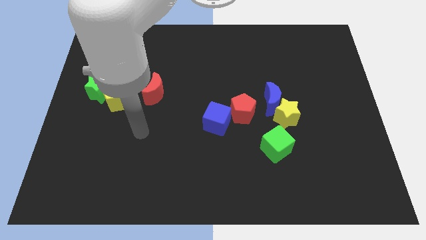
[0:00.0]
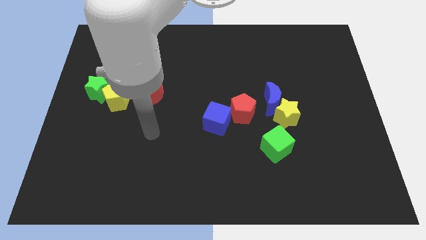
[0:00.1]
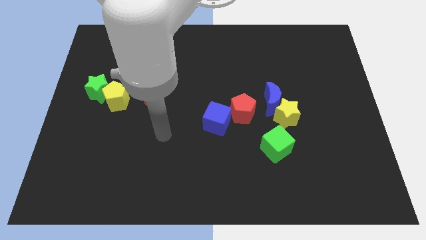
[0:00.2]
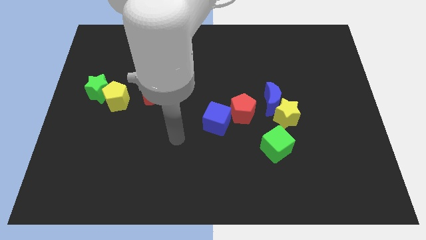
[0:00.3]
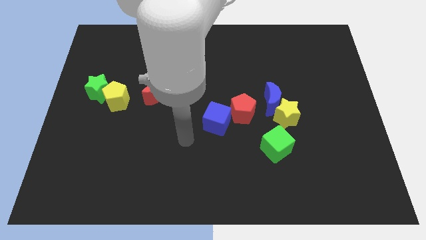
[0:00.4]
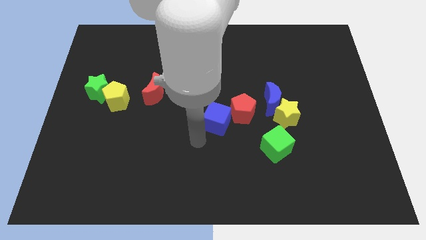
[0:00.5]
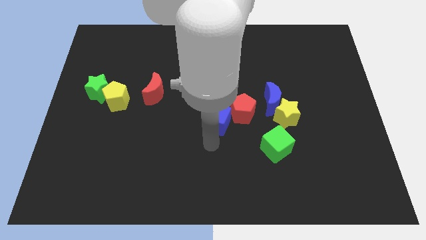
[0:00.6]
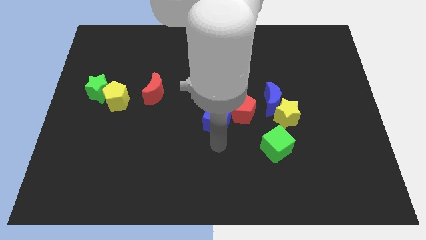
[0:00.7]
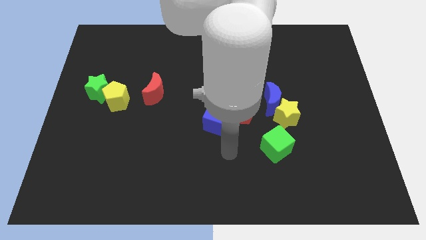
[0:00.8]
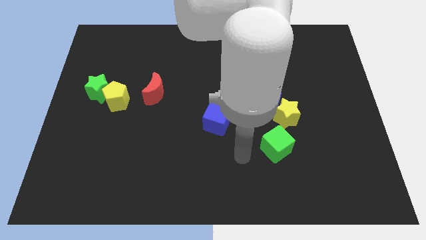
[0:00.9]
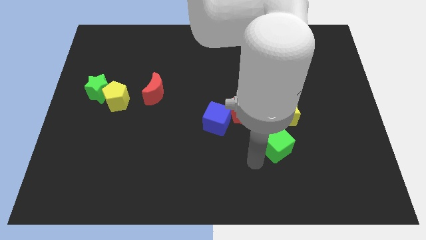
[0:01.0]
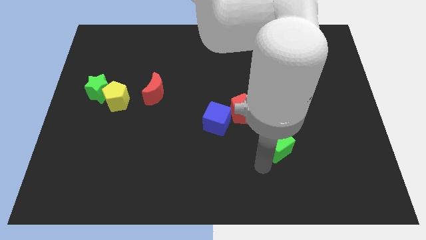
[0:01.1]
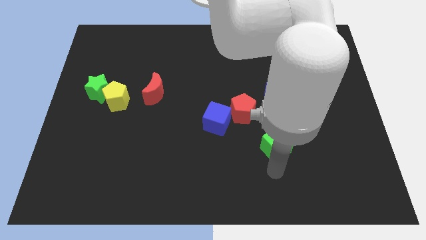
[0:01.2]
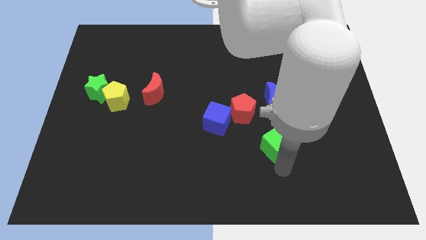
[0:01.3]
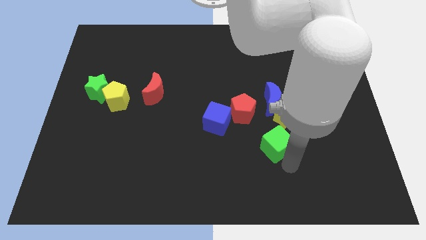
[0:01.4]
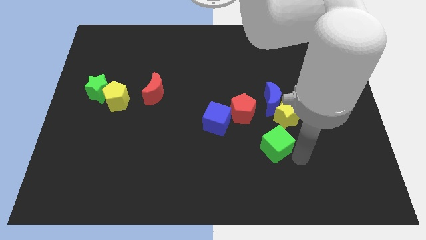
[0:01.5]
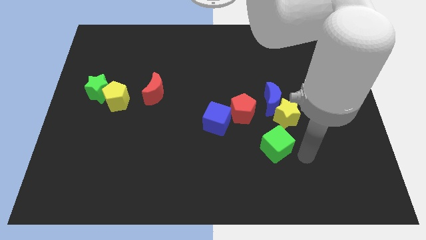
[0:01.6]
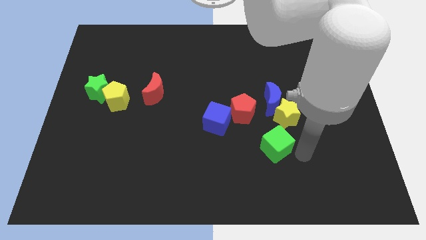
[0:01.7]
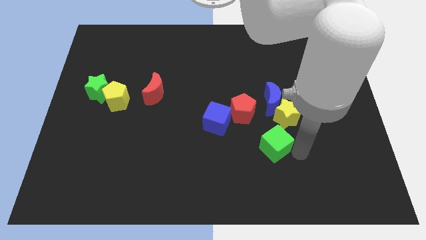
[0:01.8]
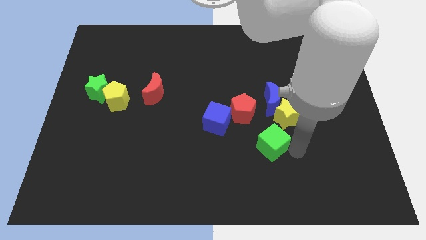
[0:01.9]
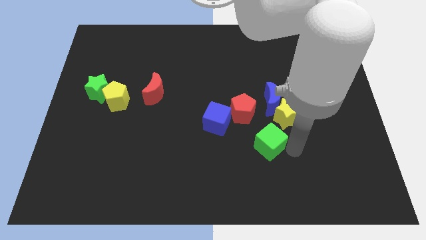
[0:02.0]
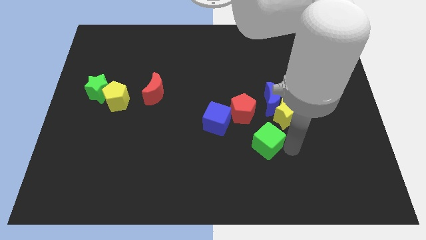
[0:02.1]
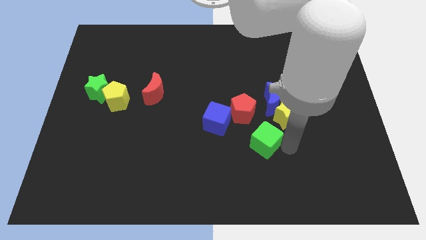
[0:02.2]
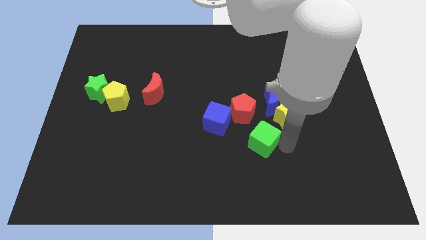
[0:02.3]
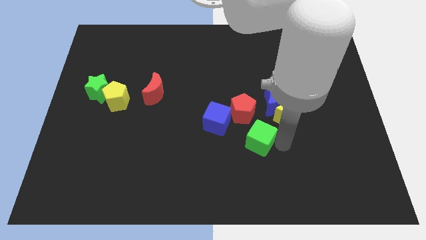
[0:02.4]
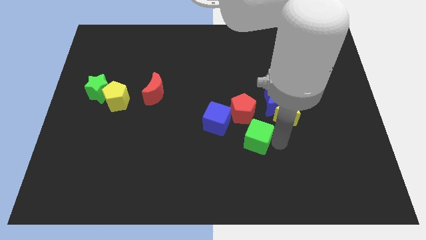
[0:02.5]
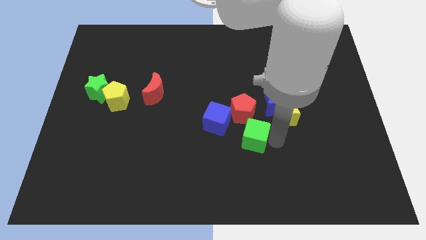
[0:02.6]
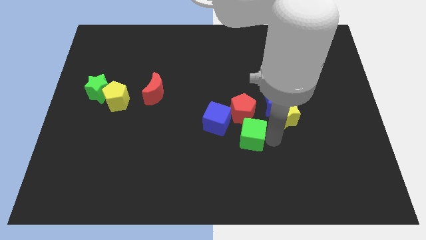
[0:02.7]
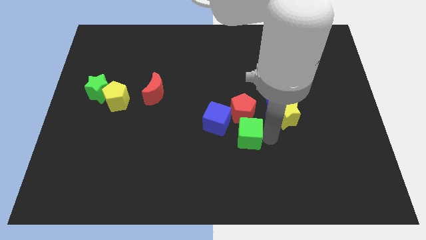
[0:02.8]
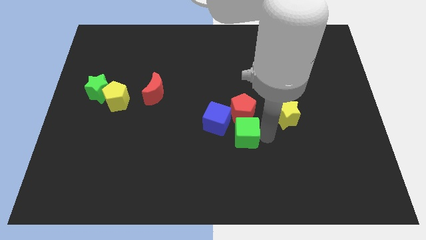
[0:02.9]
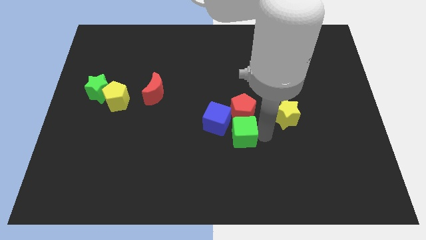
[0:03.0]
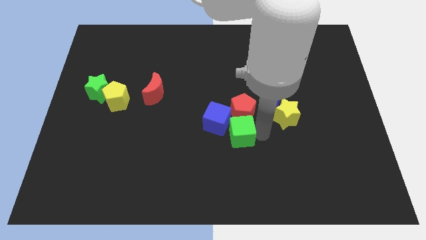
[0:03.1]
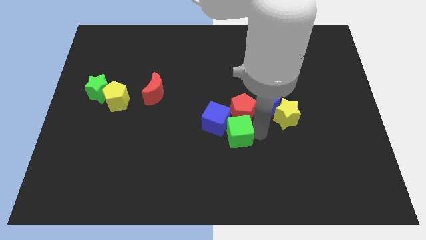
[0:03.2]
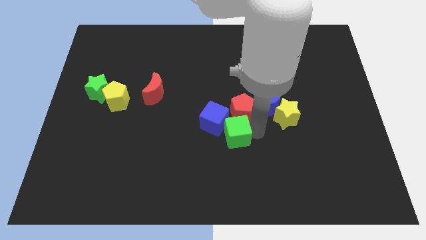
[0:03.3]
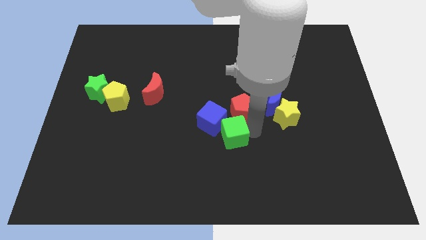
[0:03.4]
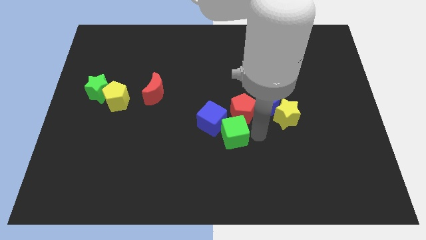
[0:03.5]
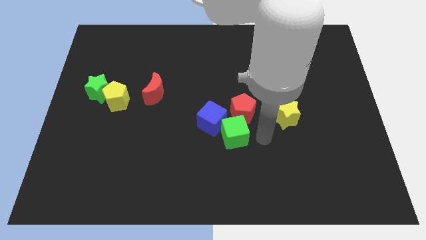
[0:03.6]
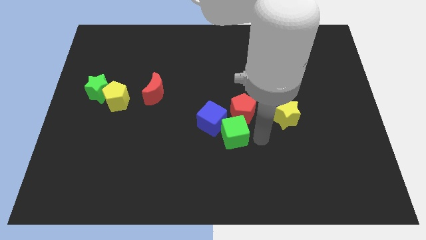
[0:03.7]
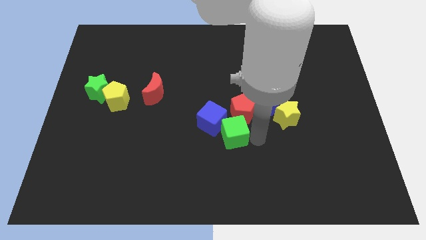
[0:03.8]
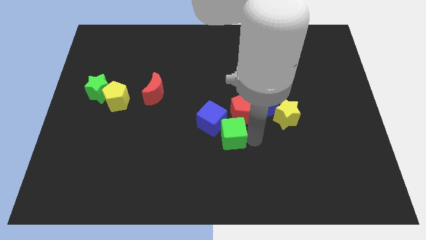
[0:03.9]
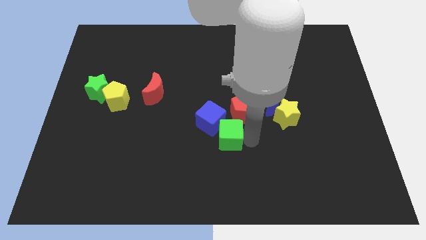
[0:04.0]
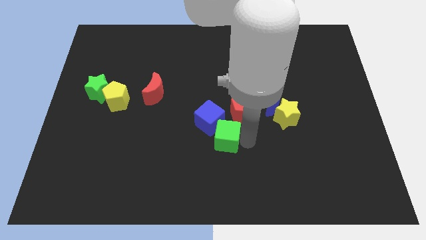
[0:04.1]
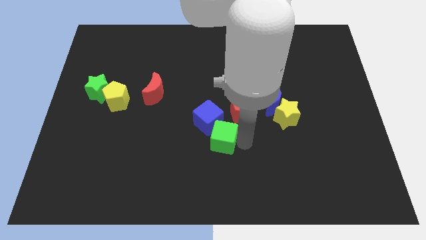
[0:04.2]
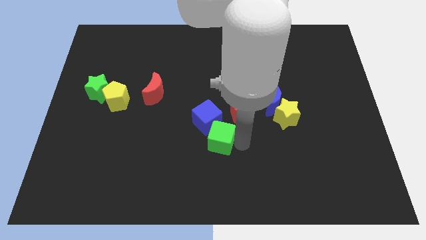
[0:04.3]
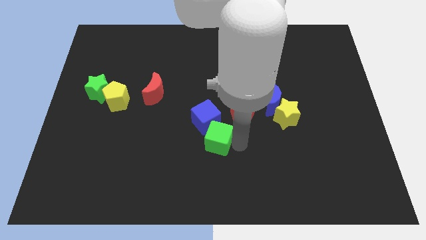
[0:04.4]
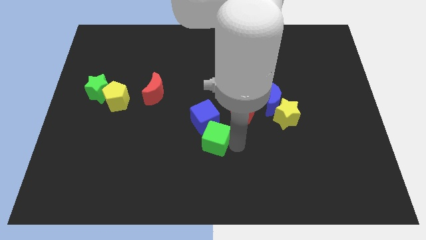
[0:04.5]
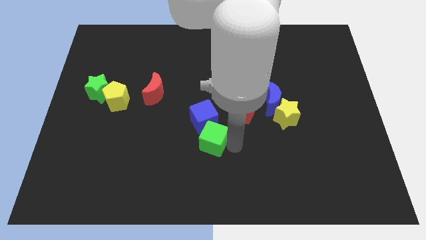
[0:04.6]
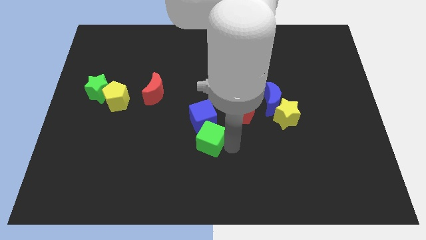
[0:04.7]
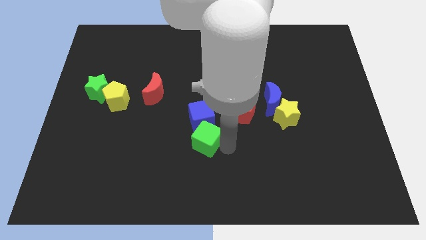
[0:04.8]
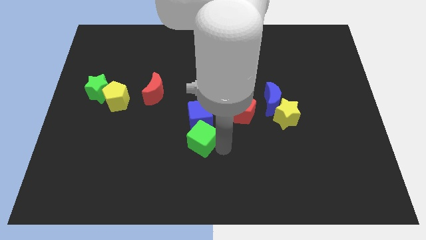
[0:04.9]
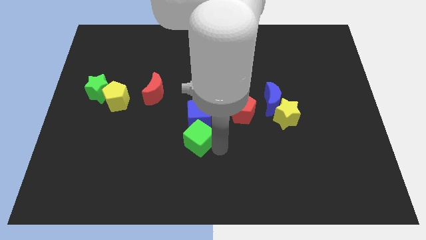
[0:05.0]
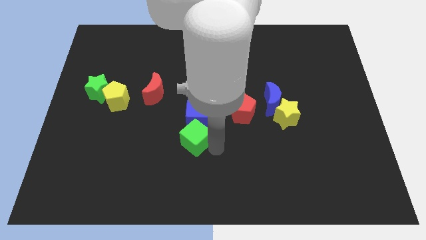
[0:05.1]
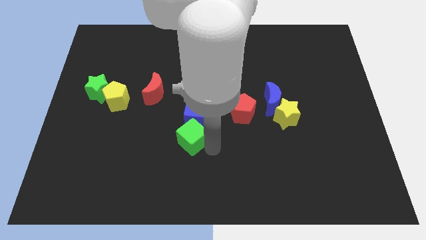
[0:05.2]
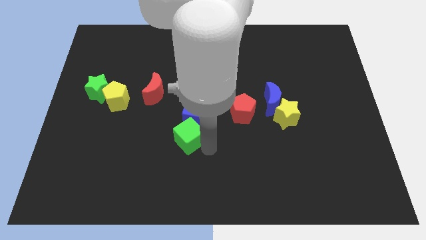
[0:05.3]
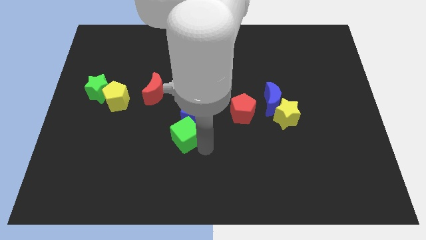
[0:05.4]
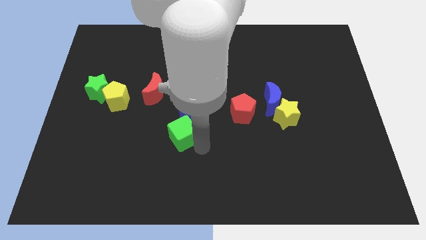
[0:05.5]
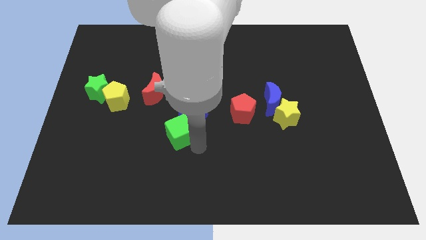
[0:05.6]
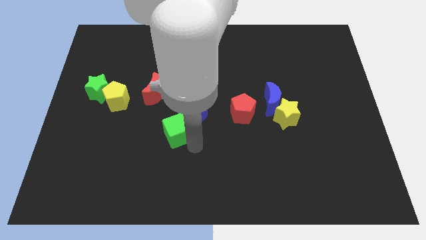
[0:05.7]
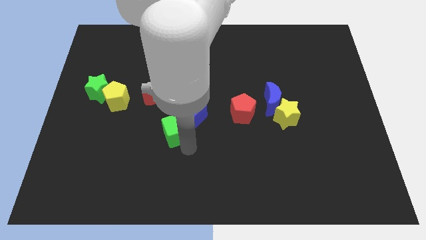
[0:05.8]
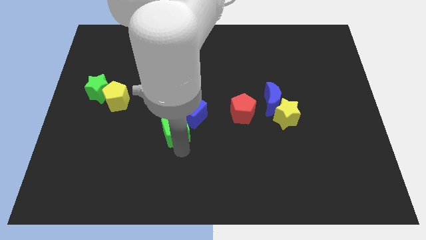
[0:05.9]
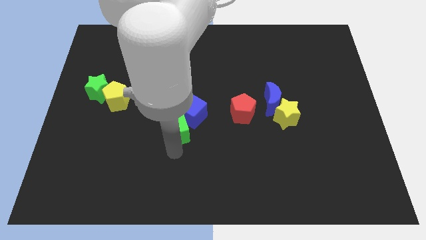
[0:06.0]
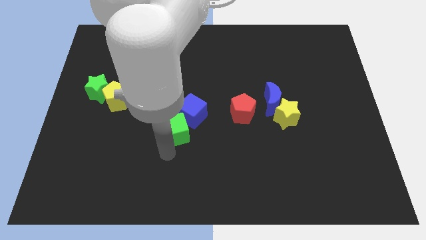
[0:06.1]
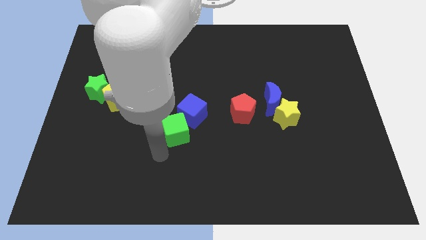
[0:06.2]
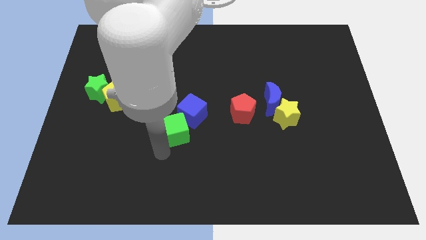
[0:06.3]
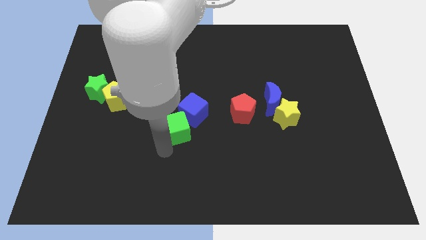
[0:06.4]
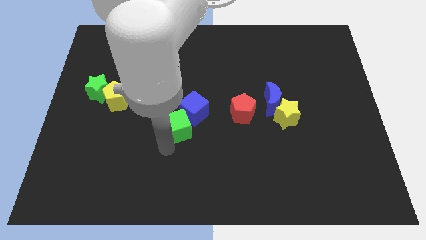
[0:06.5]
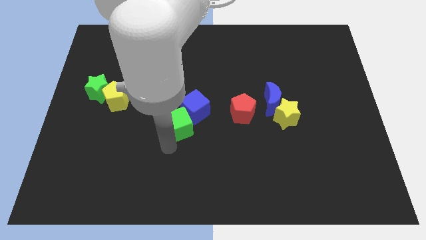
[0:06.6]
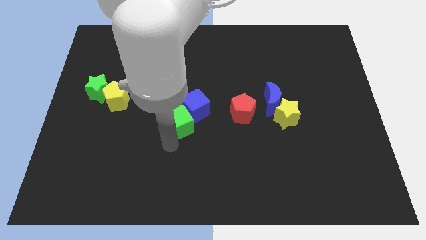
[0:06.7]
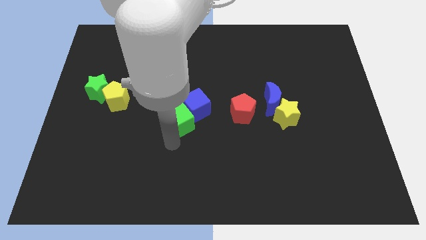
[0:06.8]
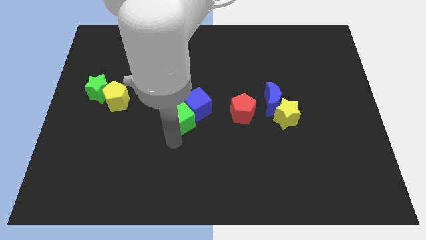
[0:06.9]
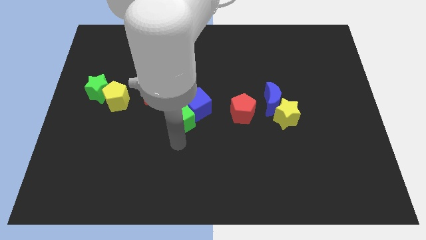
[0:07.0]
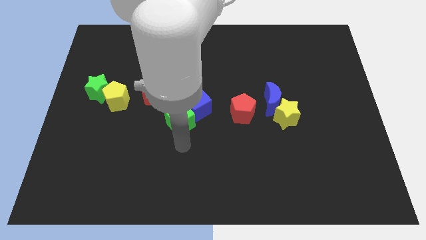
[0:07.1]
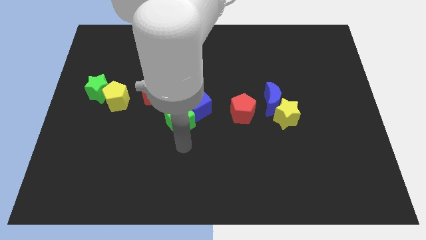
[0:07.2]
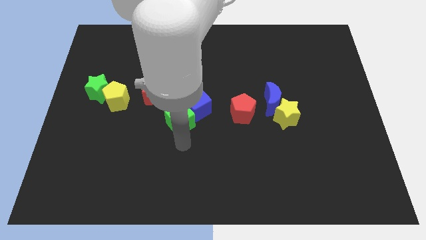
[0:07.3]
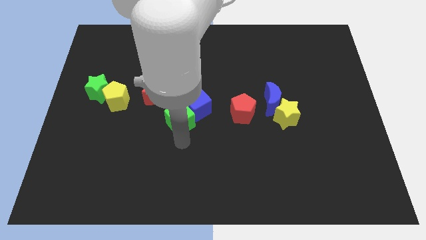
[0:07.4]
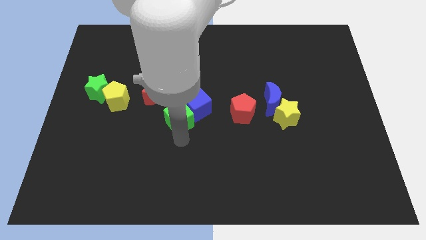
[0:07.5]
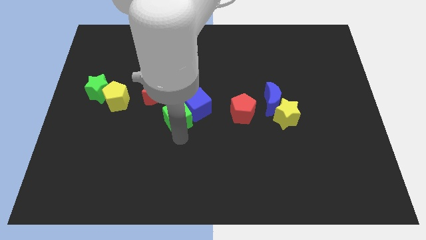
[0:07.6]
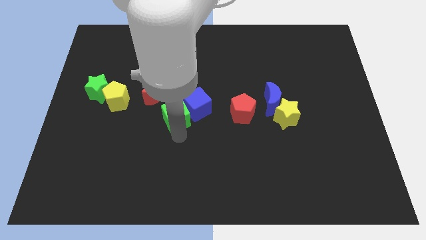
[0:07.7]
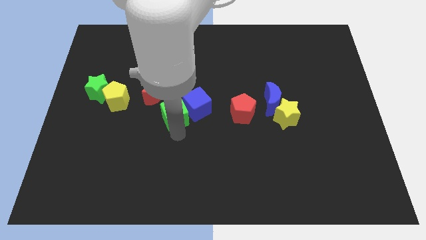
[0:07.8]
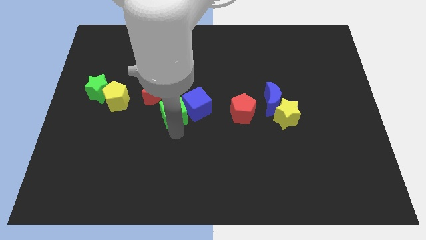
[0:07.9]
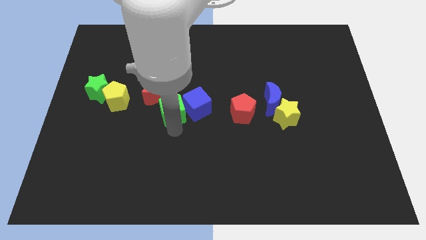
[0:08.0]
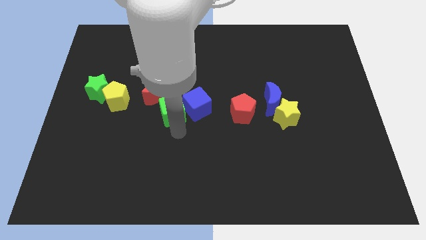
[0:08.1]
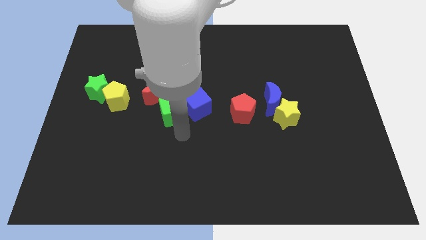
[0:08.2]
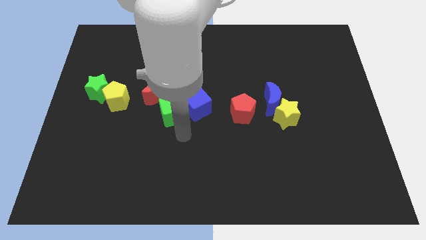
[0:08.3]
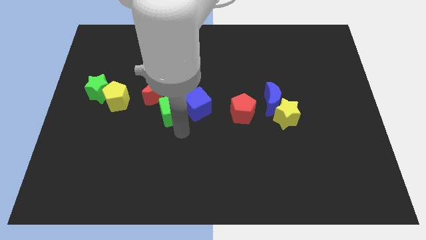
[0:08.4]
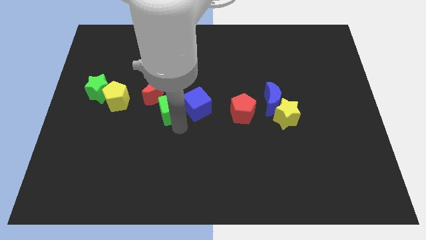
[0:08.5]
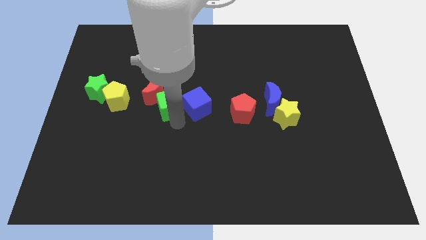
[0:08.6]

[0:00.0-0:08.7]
slide the green cube to the red moon
